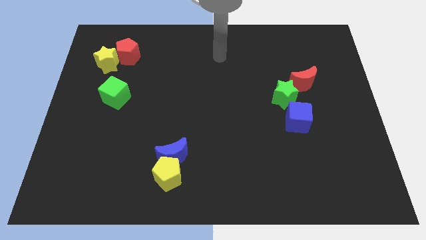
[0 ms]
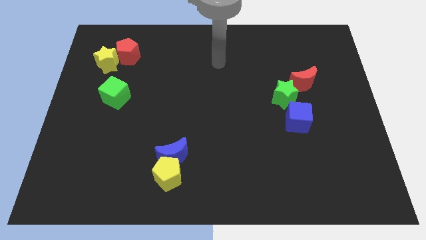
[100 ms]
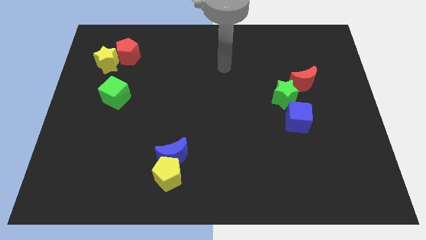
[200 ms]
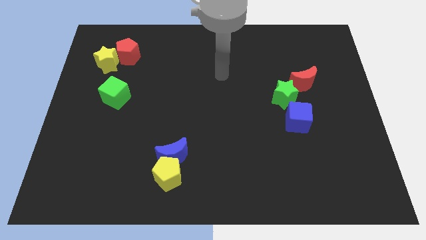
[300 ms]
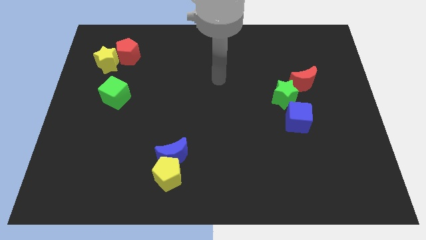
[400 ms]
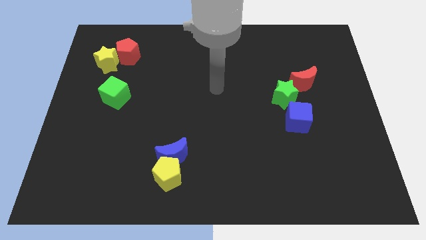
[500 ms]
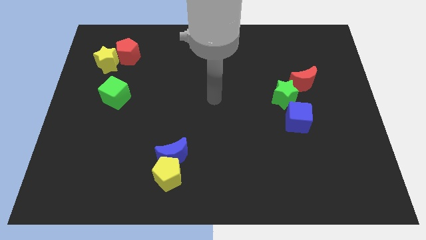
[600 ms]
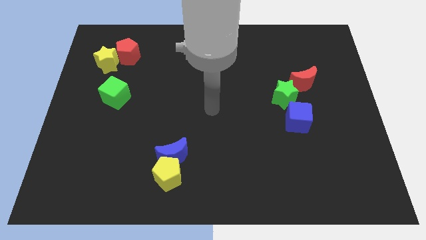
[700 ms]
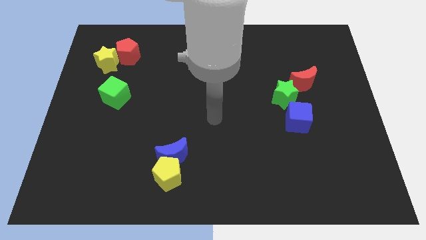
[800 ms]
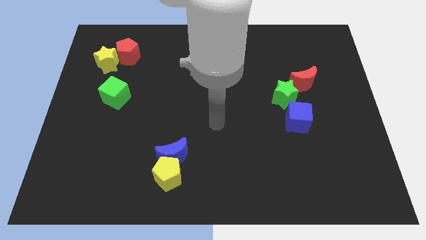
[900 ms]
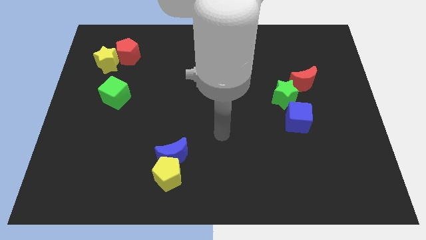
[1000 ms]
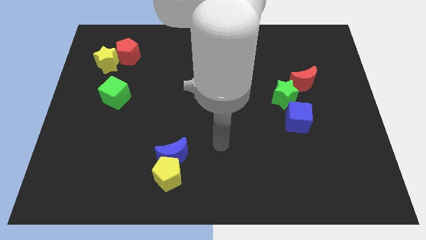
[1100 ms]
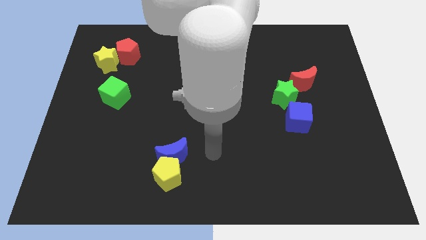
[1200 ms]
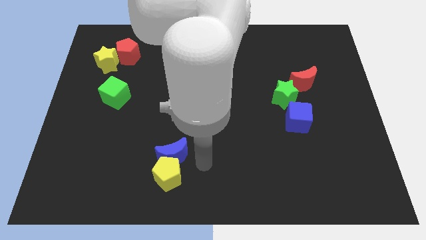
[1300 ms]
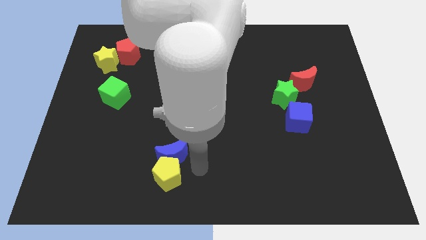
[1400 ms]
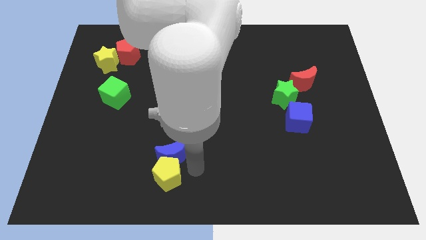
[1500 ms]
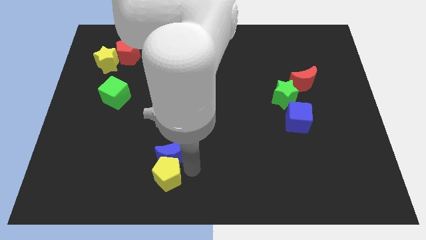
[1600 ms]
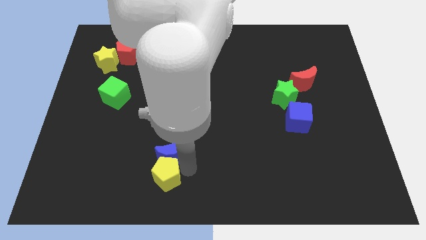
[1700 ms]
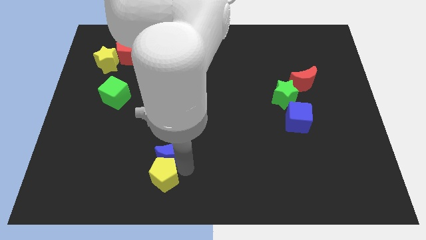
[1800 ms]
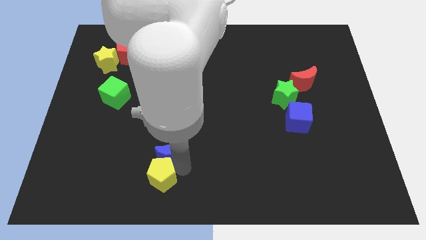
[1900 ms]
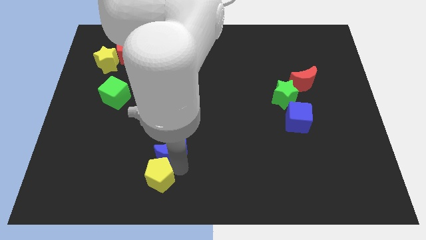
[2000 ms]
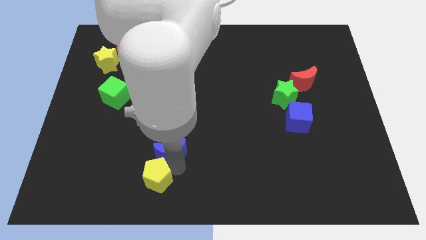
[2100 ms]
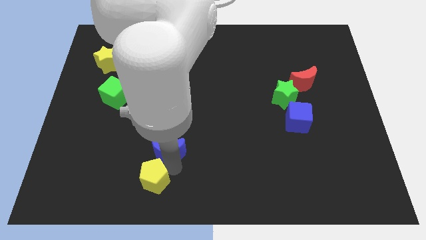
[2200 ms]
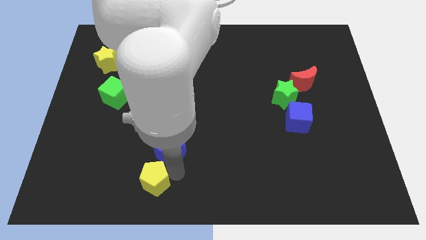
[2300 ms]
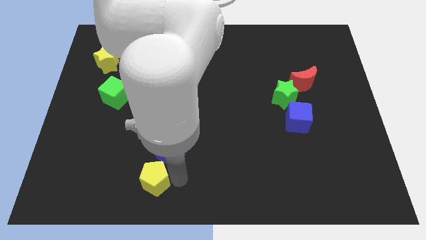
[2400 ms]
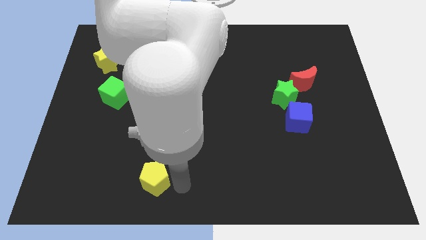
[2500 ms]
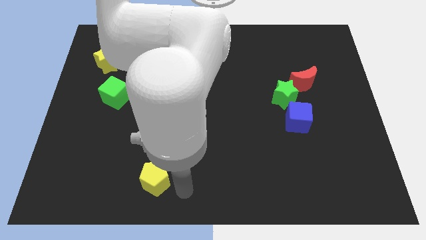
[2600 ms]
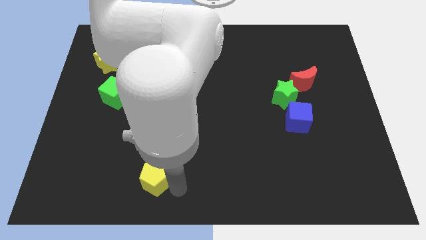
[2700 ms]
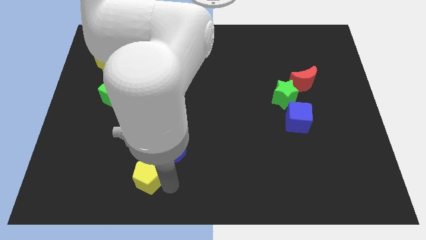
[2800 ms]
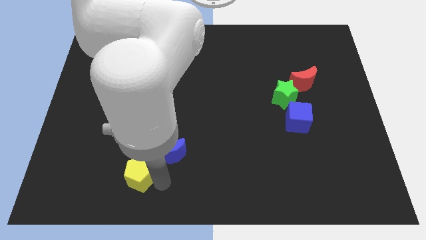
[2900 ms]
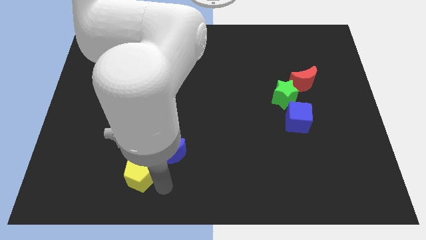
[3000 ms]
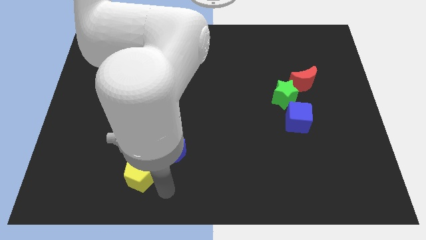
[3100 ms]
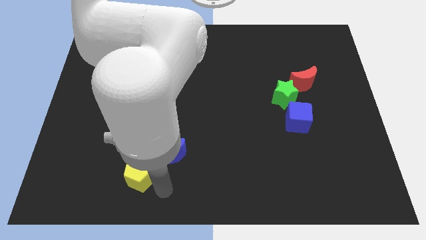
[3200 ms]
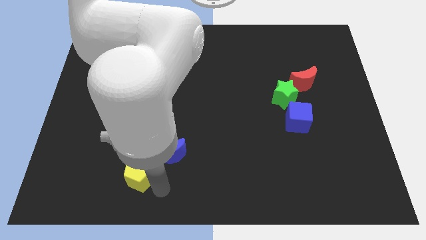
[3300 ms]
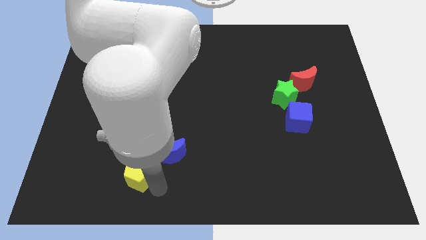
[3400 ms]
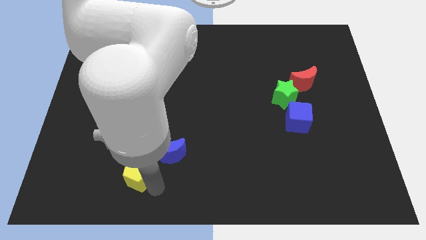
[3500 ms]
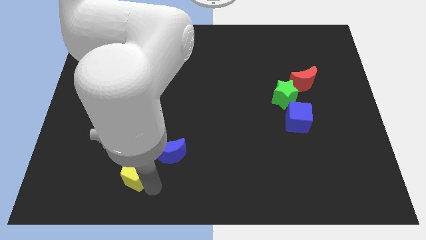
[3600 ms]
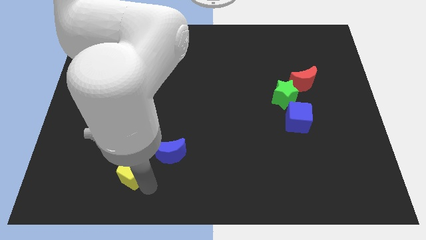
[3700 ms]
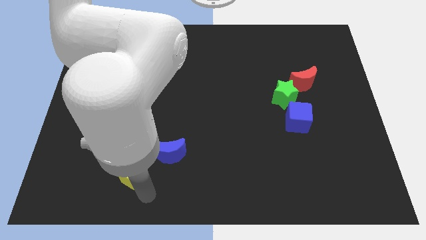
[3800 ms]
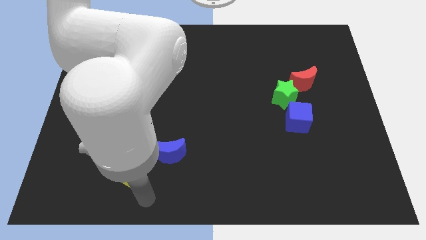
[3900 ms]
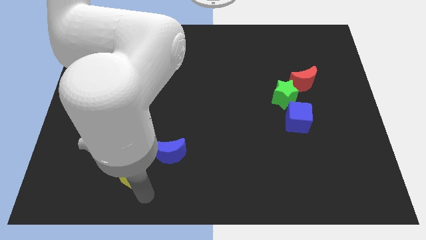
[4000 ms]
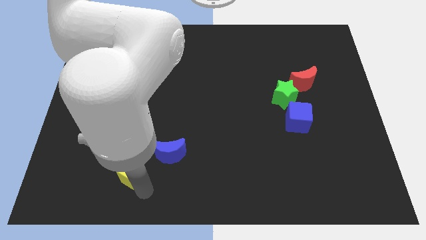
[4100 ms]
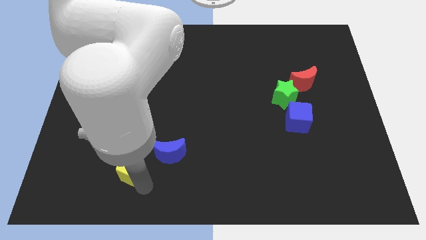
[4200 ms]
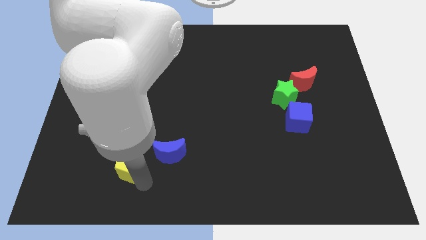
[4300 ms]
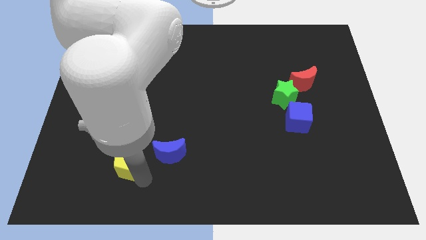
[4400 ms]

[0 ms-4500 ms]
slide the yellow pentagon upwards and then left a bit

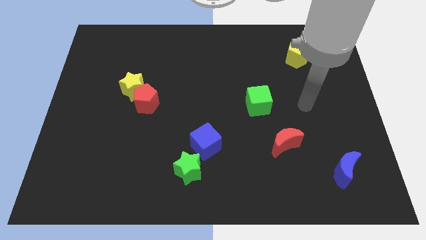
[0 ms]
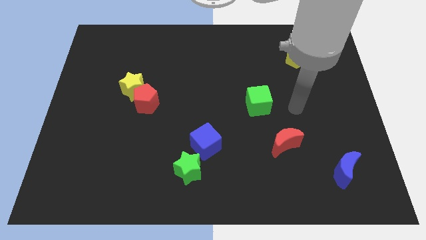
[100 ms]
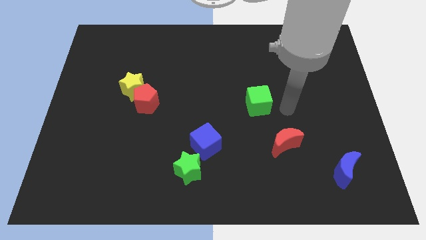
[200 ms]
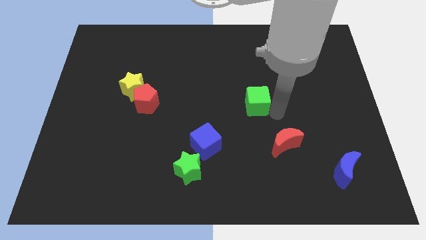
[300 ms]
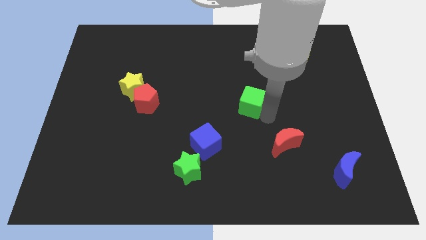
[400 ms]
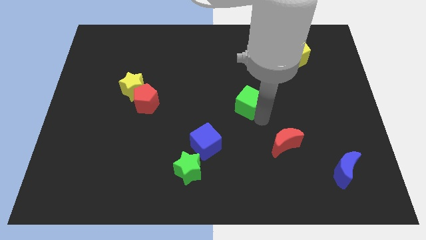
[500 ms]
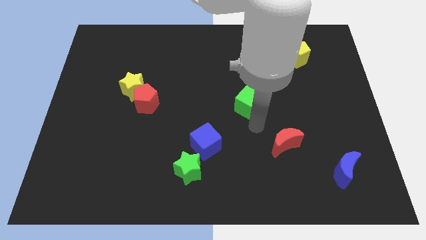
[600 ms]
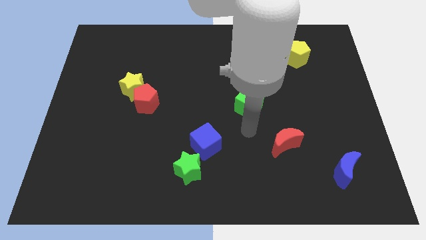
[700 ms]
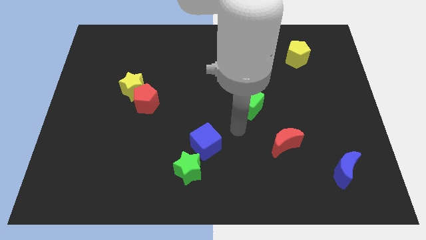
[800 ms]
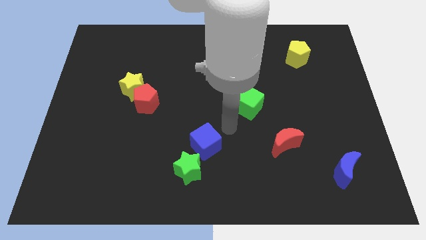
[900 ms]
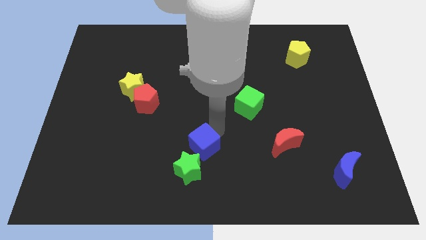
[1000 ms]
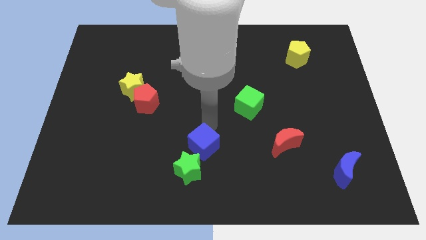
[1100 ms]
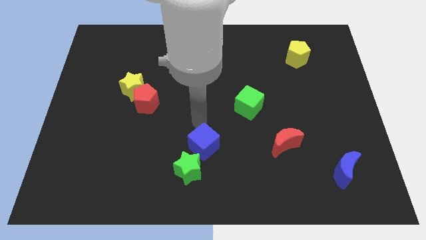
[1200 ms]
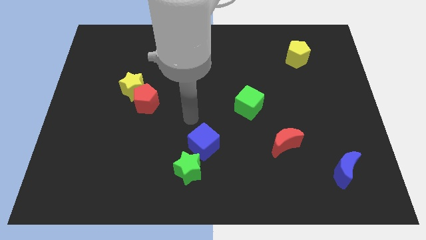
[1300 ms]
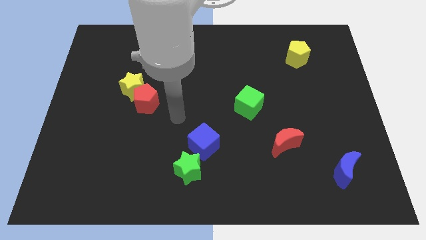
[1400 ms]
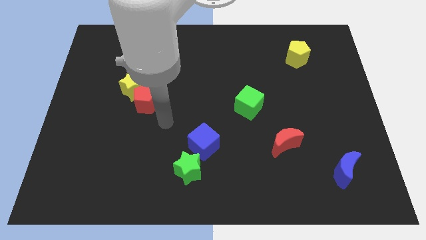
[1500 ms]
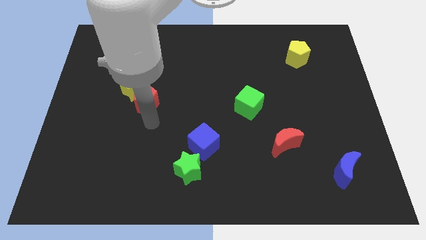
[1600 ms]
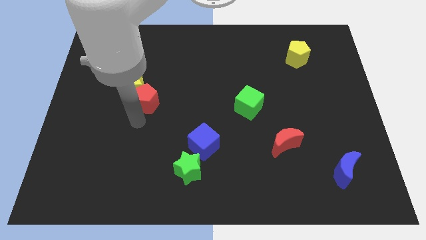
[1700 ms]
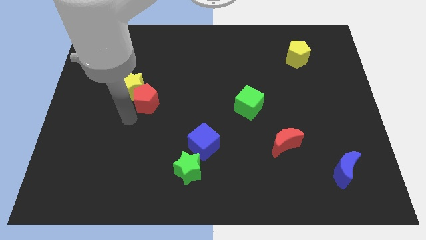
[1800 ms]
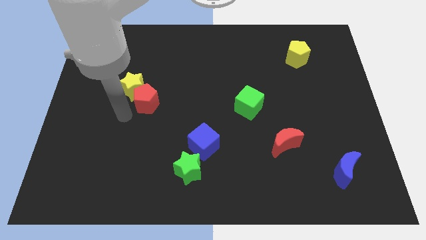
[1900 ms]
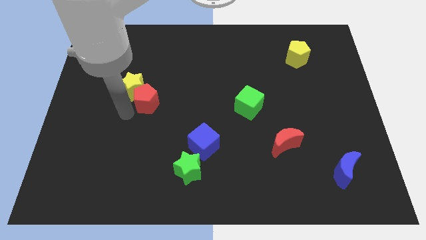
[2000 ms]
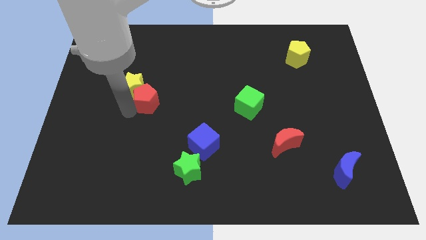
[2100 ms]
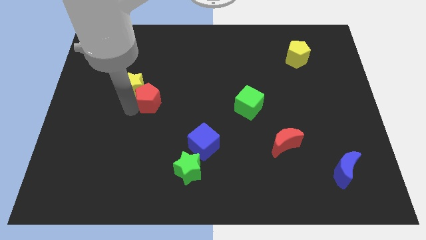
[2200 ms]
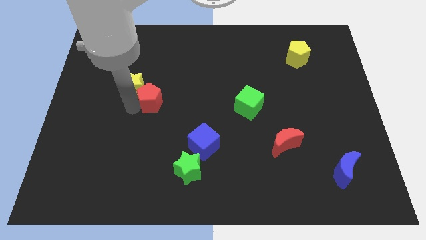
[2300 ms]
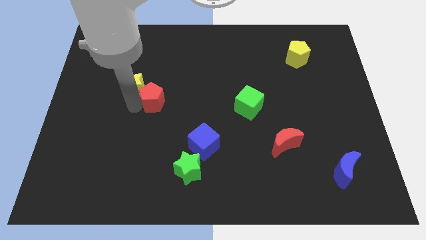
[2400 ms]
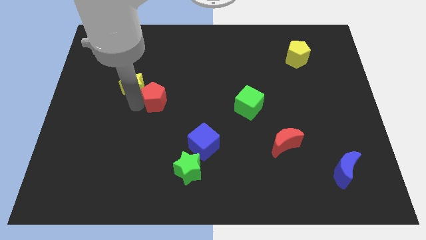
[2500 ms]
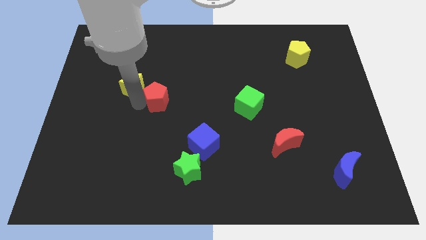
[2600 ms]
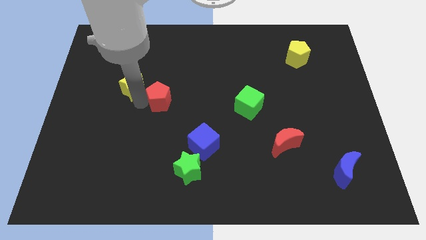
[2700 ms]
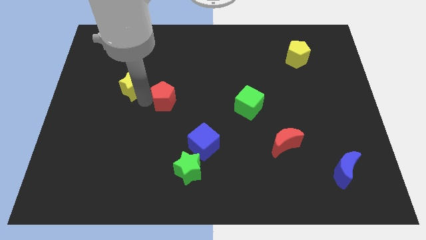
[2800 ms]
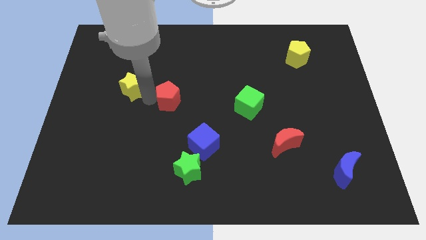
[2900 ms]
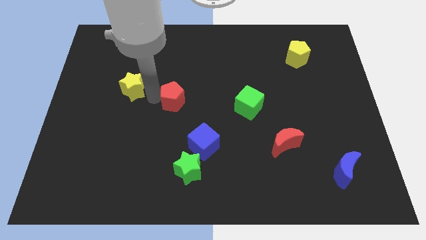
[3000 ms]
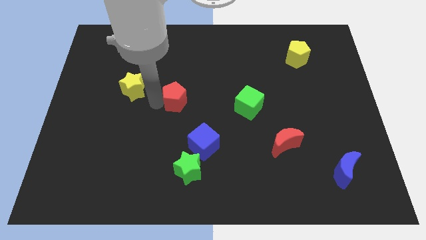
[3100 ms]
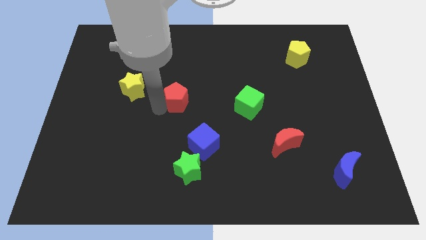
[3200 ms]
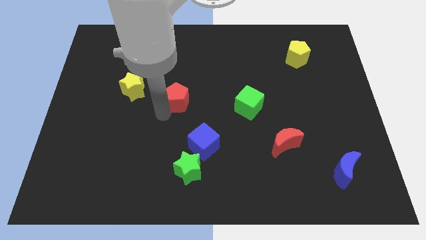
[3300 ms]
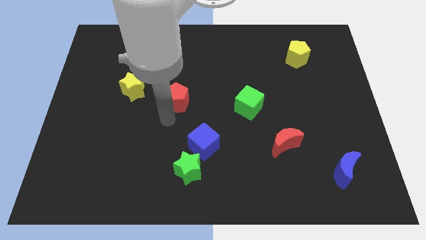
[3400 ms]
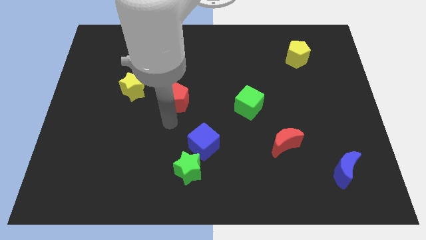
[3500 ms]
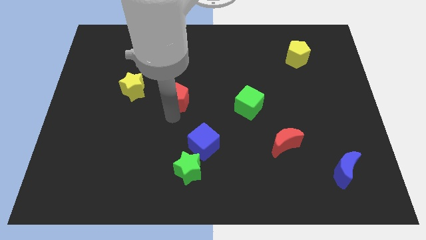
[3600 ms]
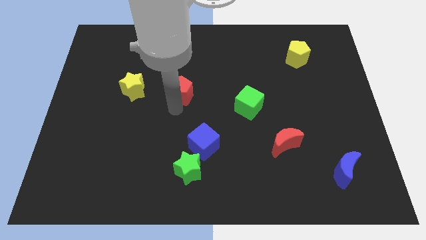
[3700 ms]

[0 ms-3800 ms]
push the red pentagon diagonally upwards and to the right somewhat
